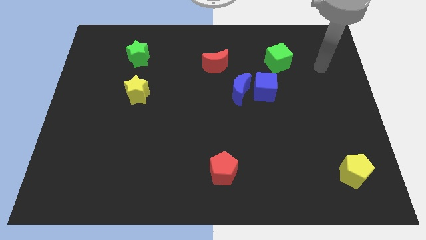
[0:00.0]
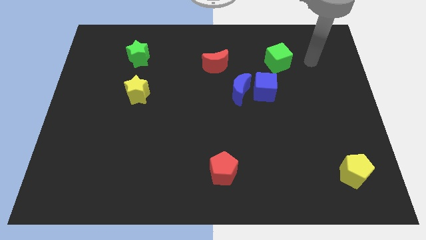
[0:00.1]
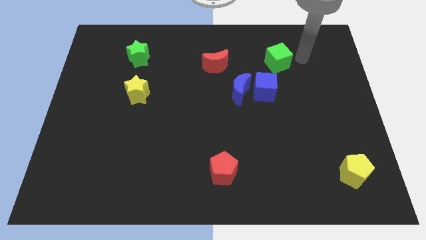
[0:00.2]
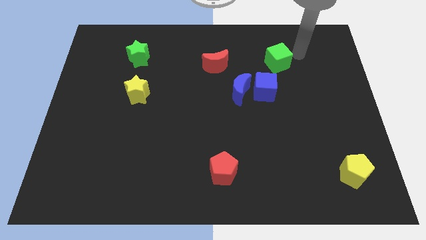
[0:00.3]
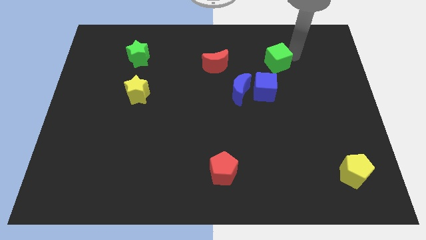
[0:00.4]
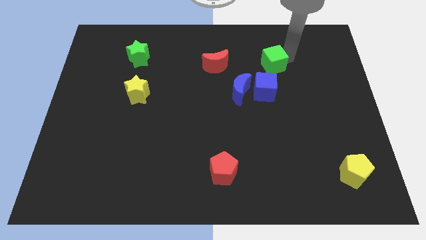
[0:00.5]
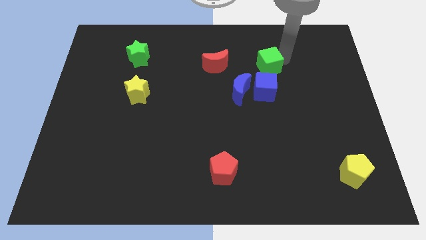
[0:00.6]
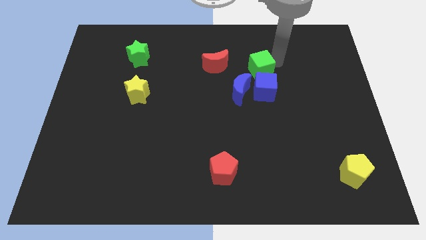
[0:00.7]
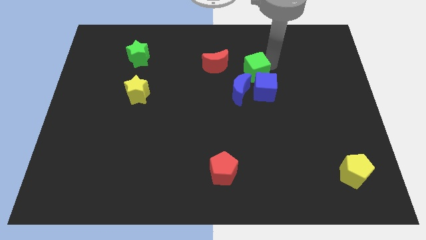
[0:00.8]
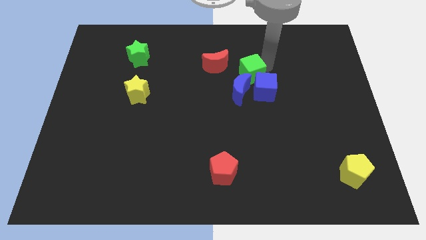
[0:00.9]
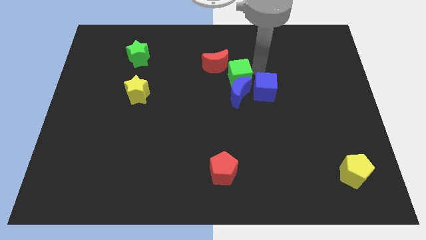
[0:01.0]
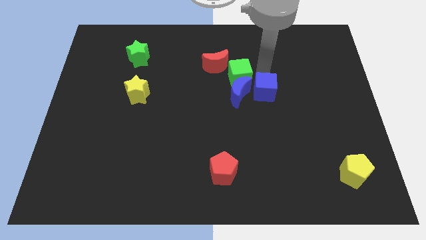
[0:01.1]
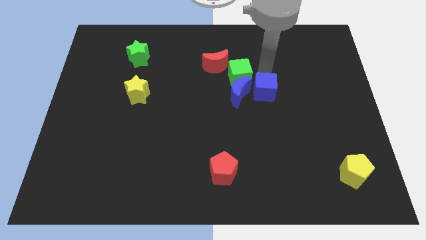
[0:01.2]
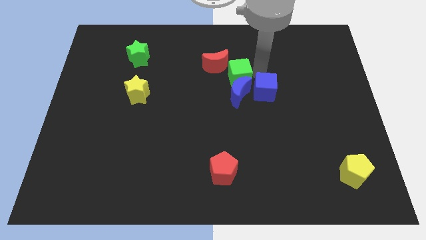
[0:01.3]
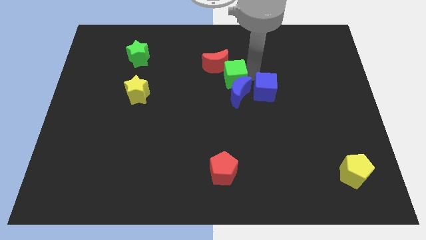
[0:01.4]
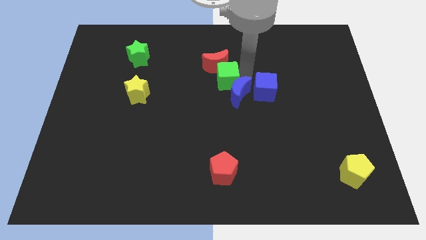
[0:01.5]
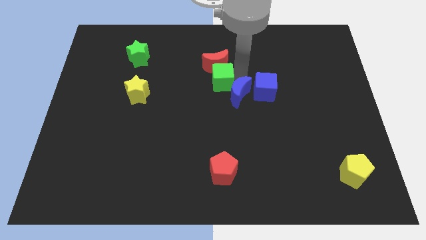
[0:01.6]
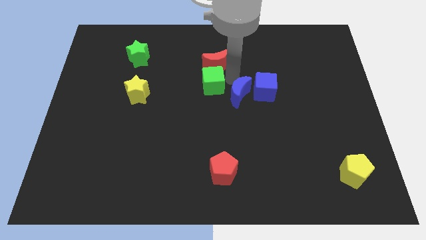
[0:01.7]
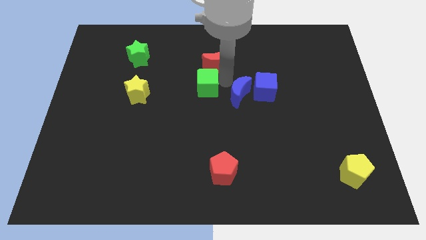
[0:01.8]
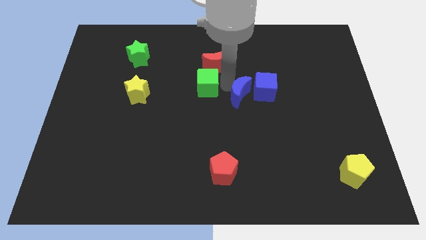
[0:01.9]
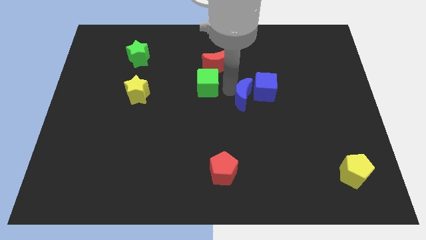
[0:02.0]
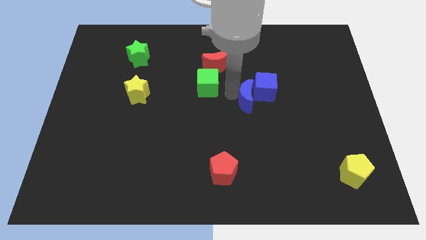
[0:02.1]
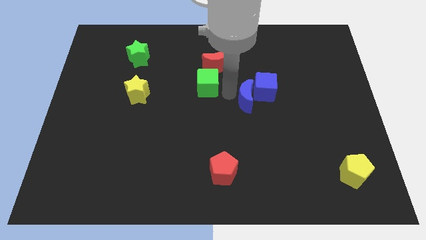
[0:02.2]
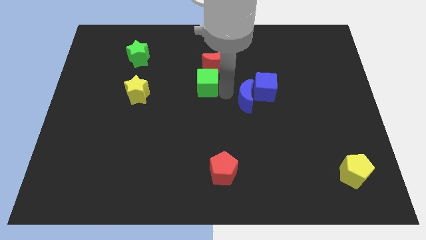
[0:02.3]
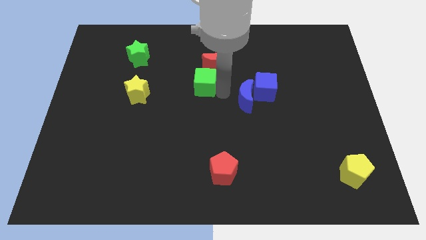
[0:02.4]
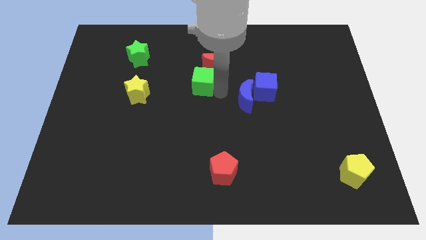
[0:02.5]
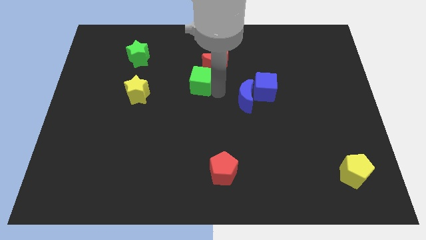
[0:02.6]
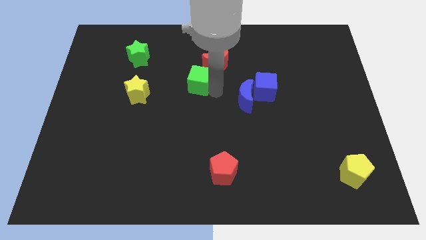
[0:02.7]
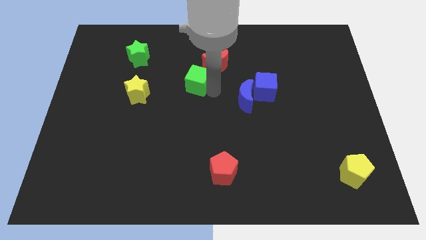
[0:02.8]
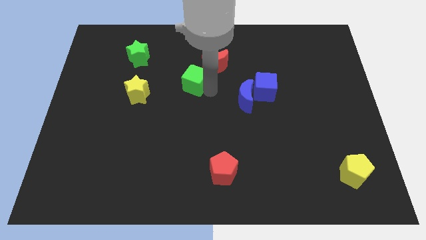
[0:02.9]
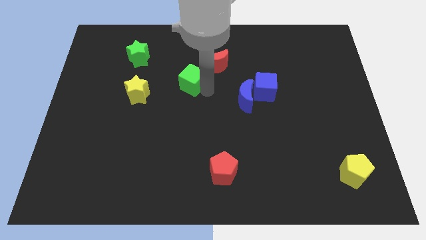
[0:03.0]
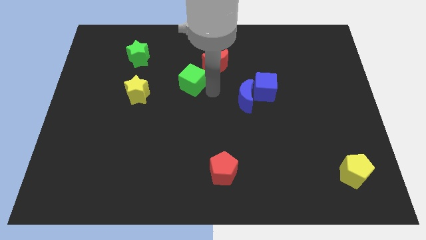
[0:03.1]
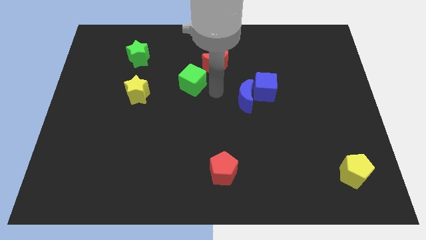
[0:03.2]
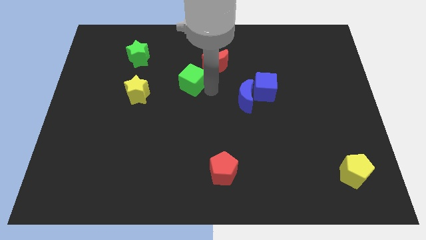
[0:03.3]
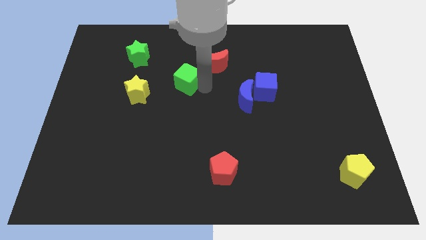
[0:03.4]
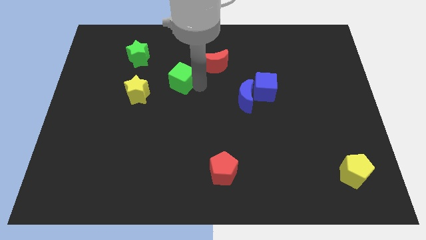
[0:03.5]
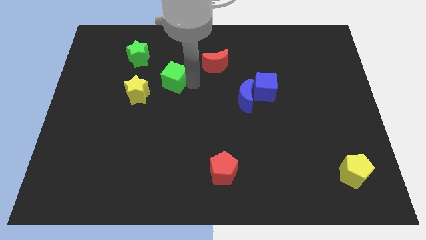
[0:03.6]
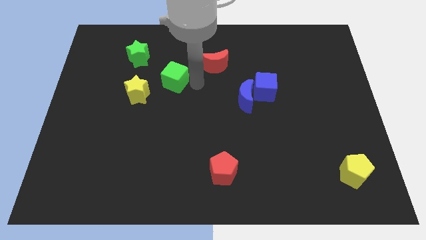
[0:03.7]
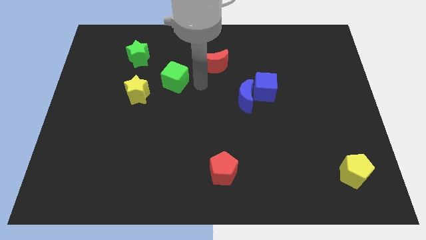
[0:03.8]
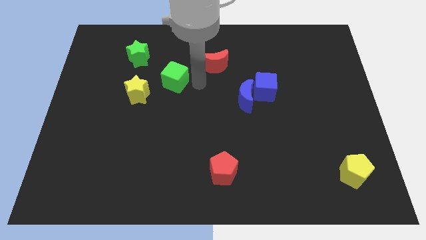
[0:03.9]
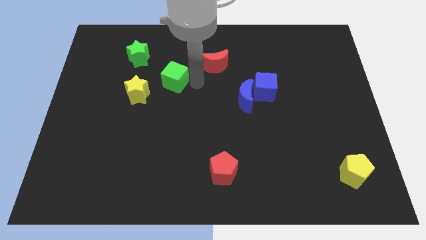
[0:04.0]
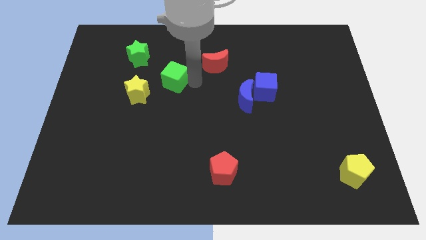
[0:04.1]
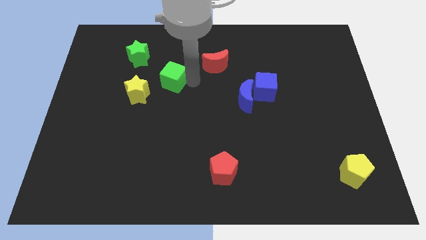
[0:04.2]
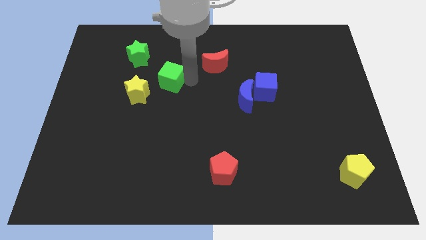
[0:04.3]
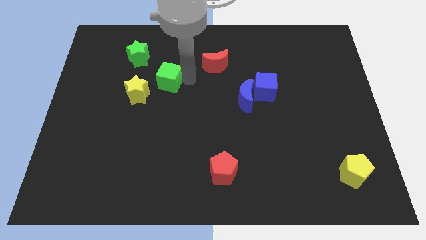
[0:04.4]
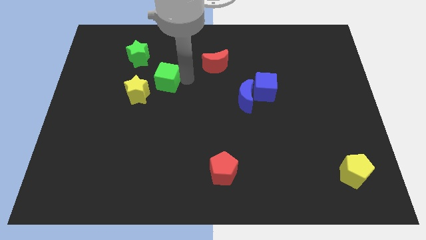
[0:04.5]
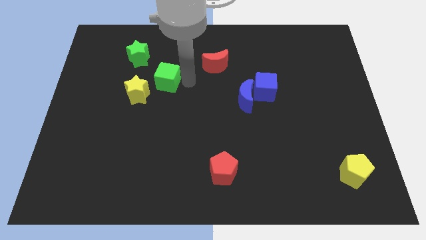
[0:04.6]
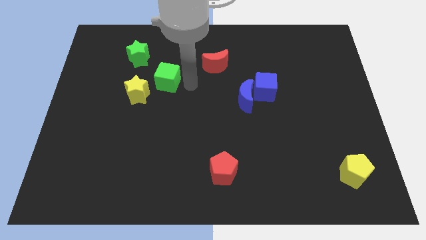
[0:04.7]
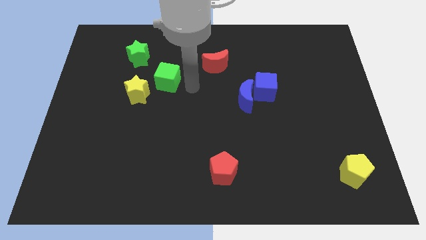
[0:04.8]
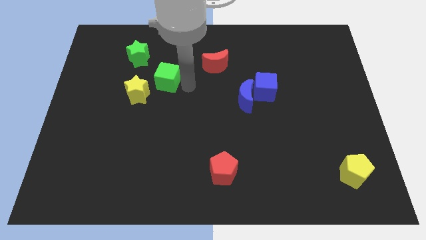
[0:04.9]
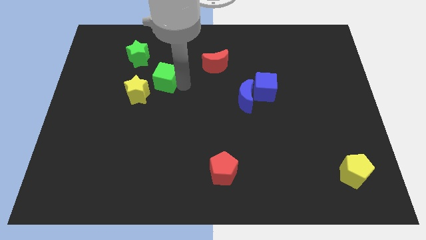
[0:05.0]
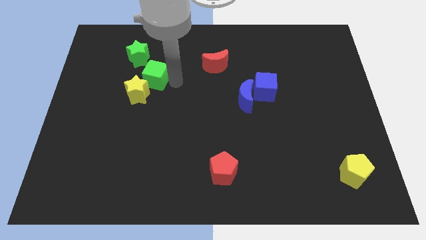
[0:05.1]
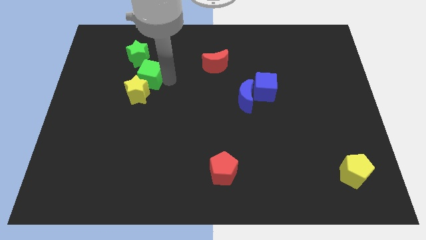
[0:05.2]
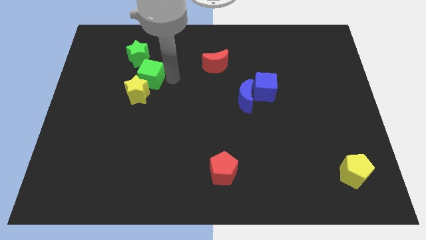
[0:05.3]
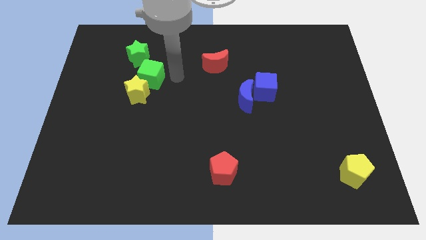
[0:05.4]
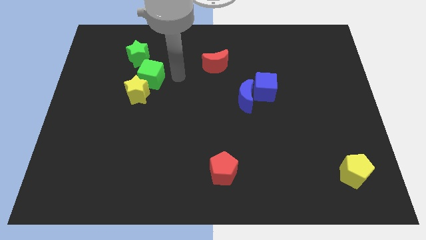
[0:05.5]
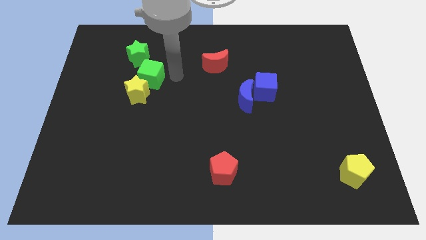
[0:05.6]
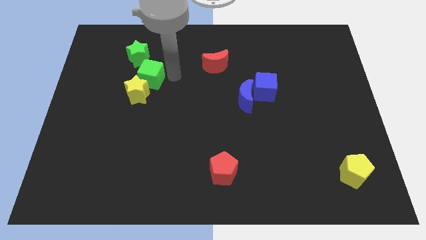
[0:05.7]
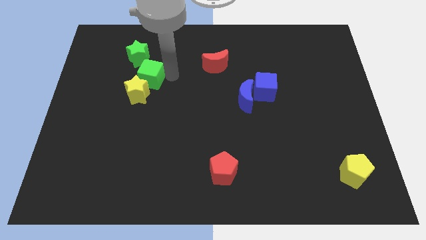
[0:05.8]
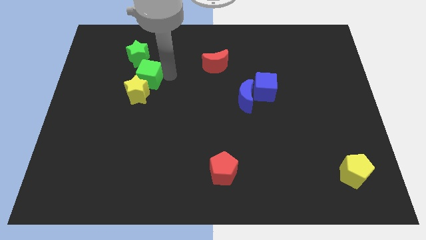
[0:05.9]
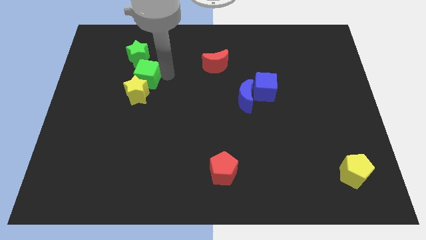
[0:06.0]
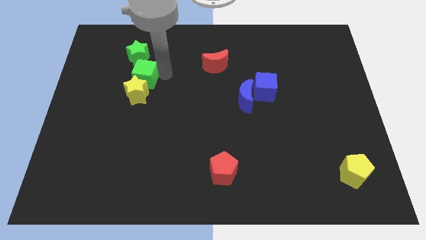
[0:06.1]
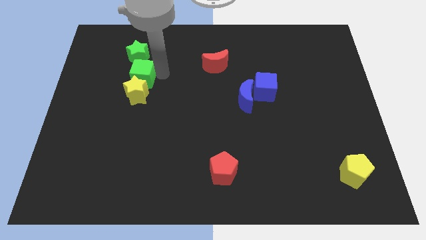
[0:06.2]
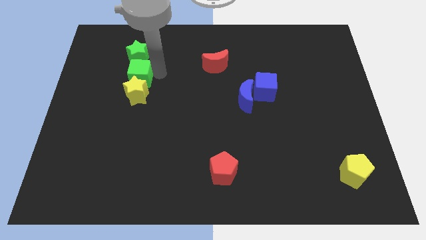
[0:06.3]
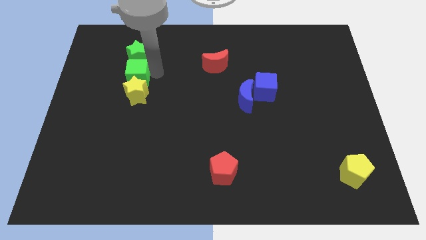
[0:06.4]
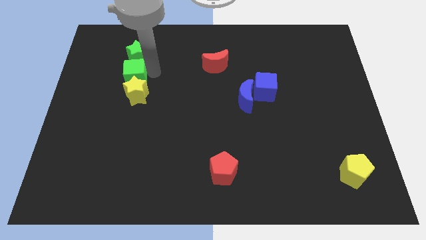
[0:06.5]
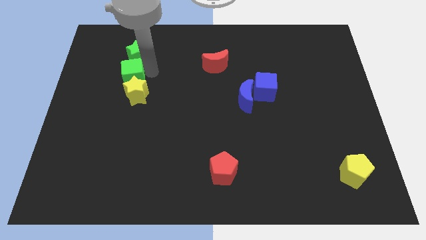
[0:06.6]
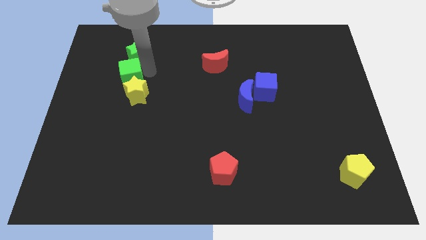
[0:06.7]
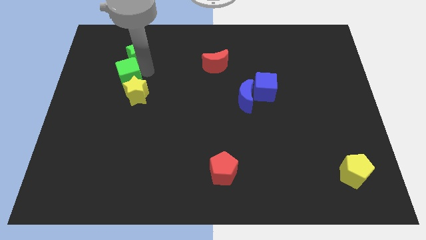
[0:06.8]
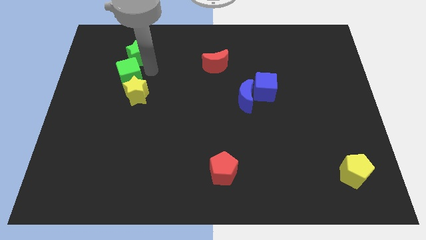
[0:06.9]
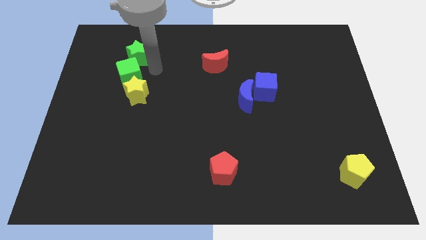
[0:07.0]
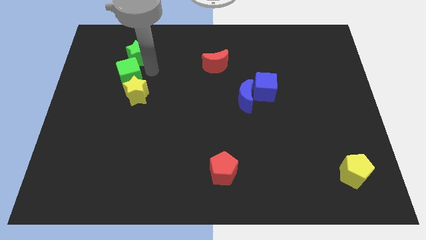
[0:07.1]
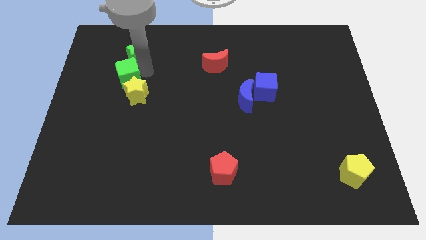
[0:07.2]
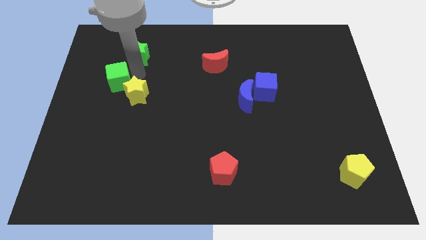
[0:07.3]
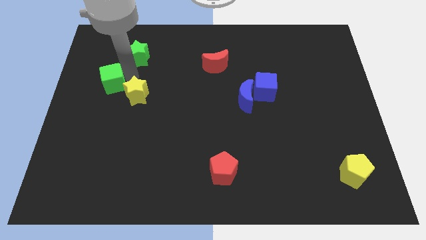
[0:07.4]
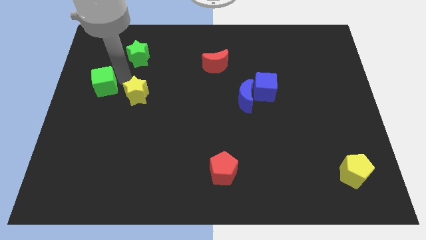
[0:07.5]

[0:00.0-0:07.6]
move the green cube to the left side of the board
